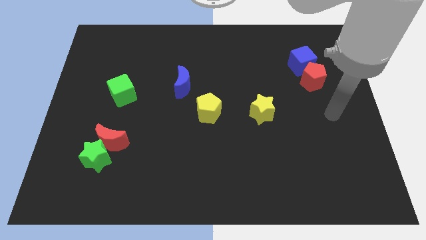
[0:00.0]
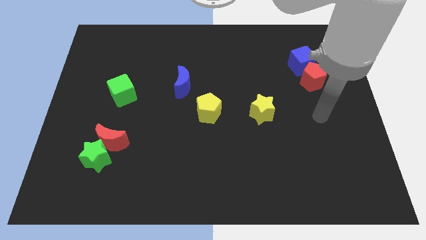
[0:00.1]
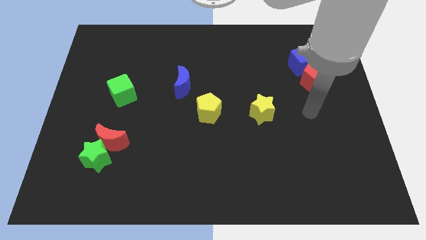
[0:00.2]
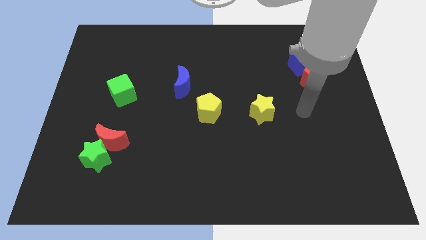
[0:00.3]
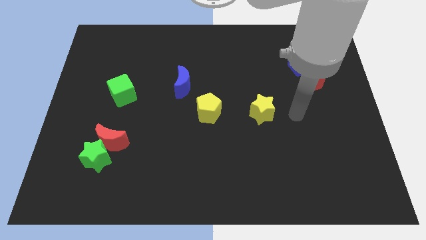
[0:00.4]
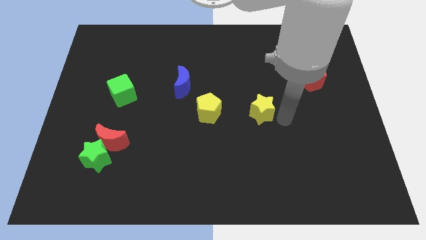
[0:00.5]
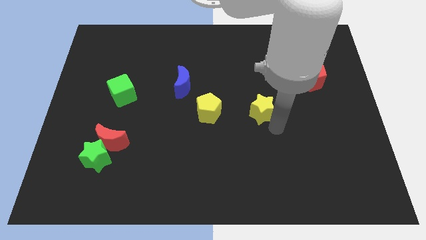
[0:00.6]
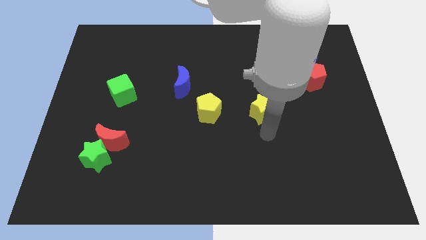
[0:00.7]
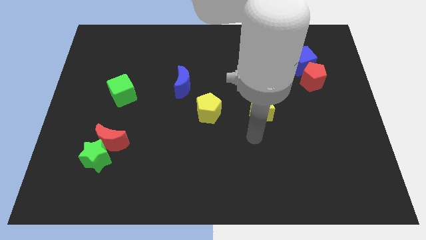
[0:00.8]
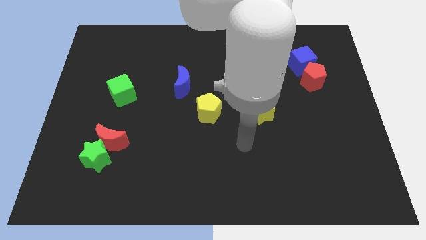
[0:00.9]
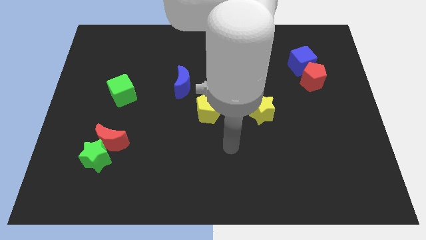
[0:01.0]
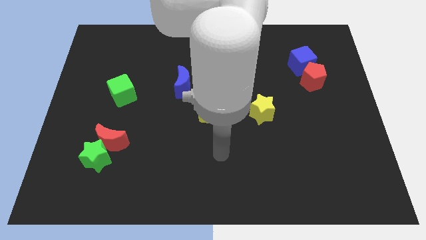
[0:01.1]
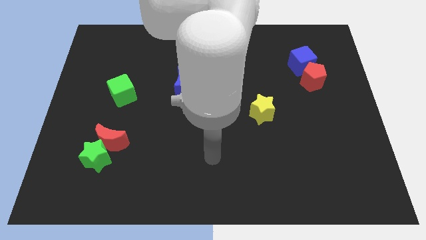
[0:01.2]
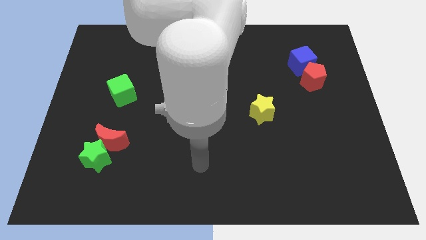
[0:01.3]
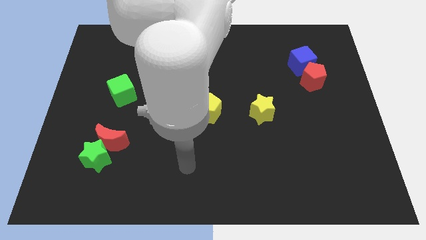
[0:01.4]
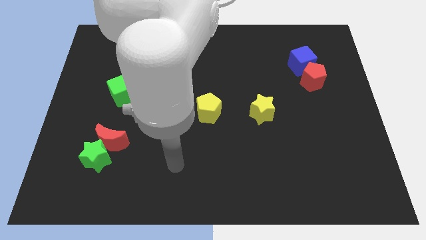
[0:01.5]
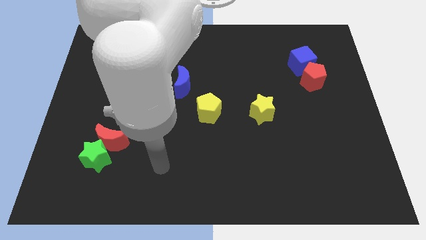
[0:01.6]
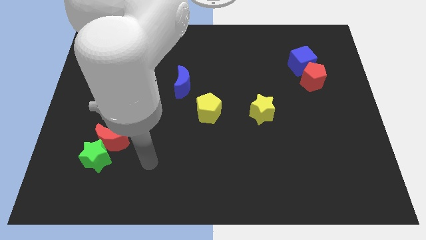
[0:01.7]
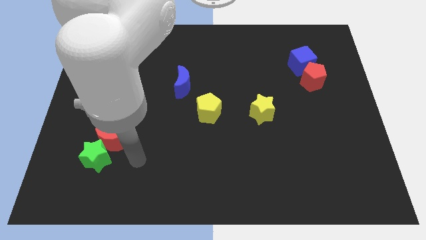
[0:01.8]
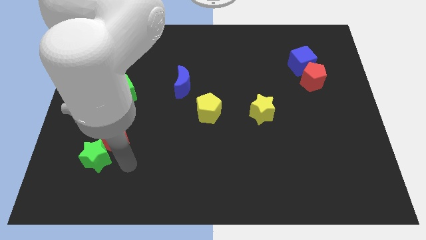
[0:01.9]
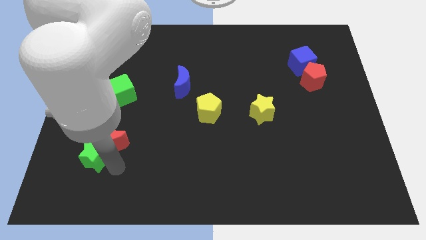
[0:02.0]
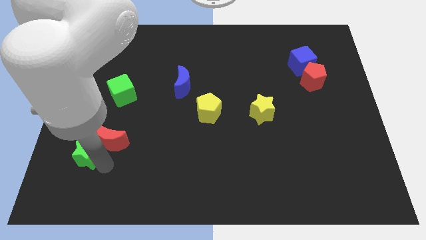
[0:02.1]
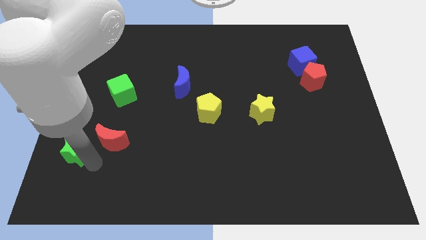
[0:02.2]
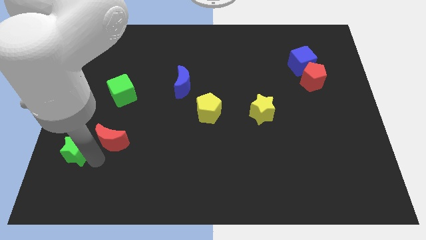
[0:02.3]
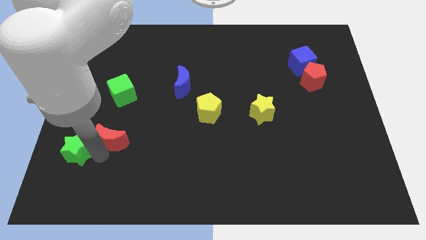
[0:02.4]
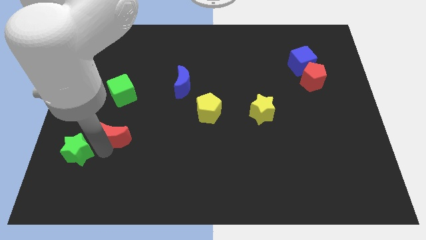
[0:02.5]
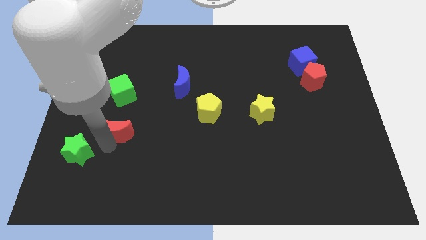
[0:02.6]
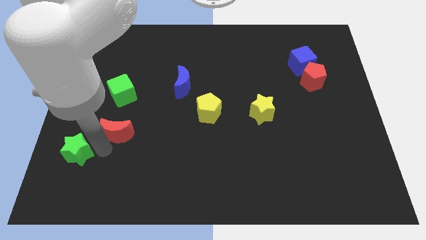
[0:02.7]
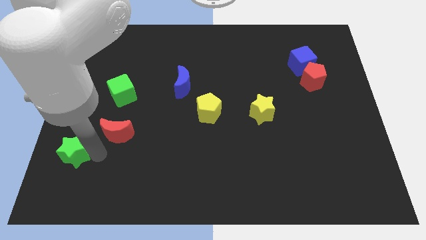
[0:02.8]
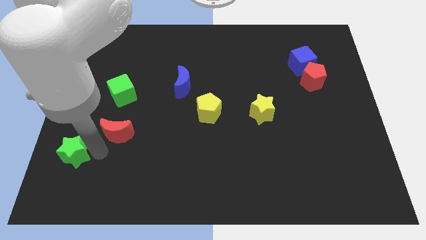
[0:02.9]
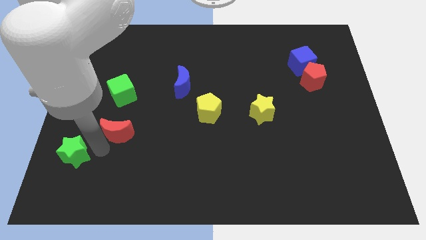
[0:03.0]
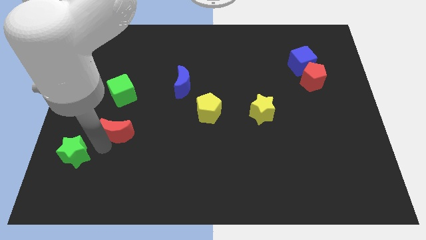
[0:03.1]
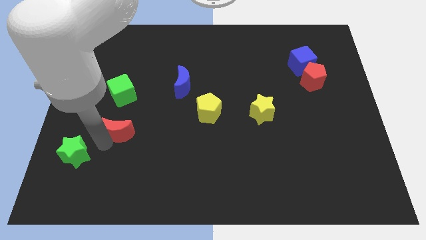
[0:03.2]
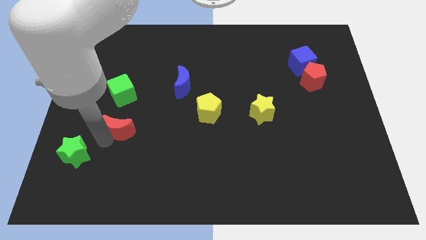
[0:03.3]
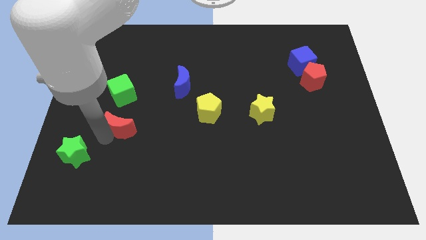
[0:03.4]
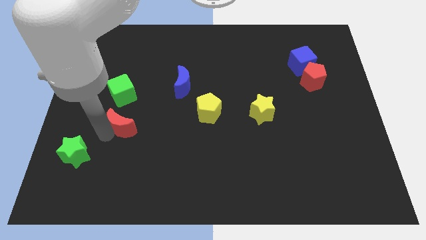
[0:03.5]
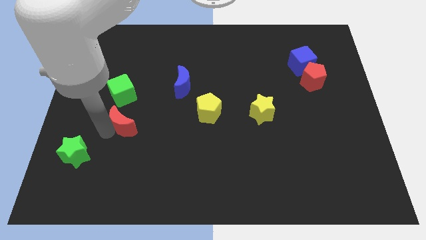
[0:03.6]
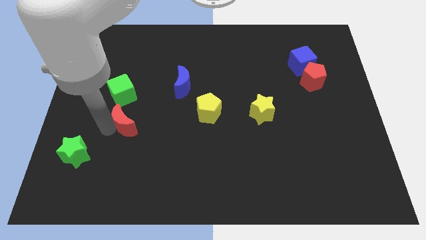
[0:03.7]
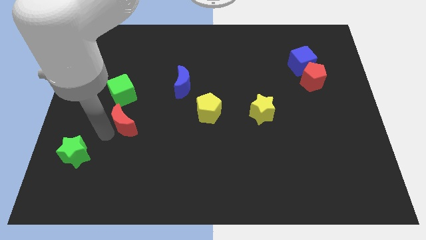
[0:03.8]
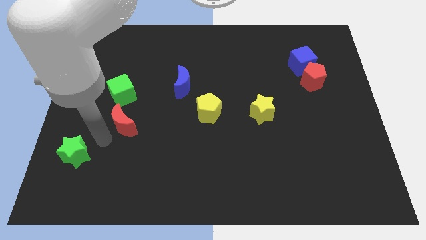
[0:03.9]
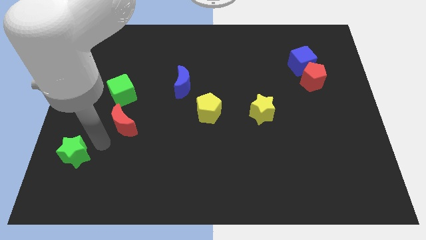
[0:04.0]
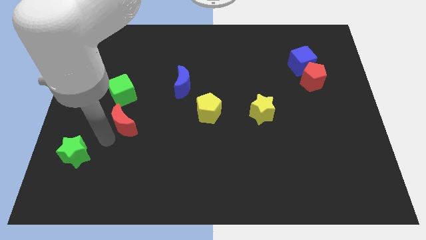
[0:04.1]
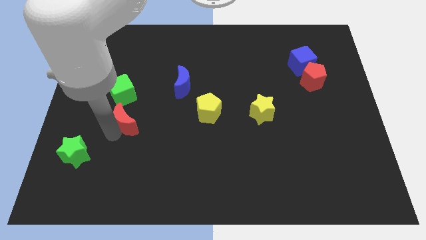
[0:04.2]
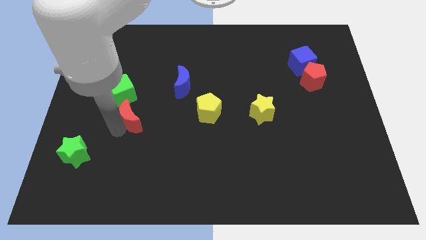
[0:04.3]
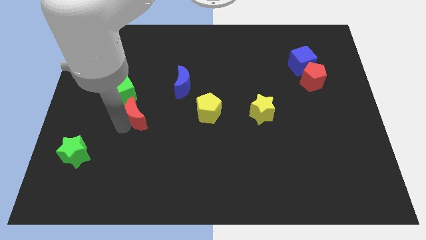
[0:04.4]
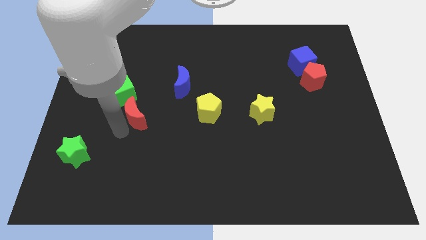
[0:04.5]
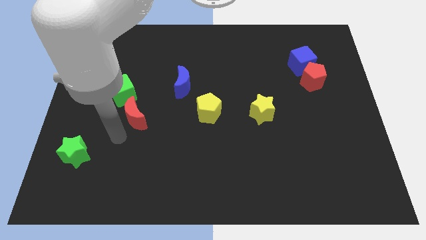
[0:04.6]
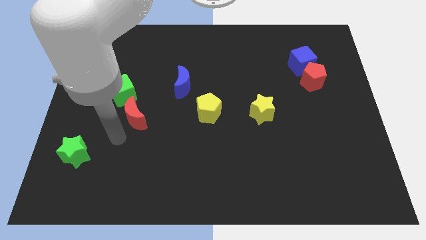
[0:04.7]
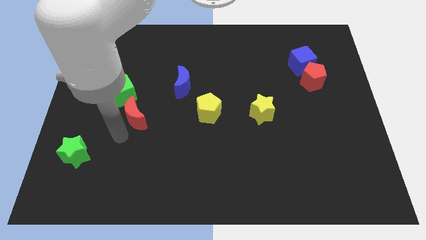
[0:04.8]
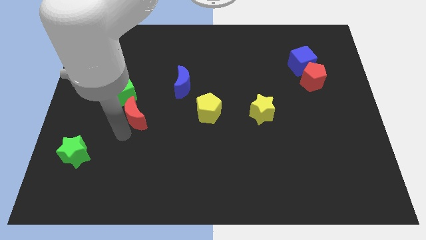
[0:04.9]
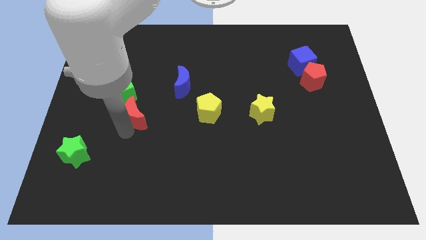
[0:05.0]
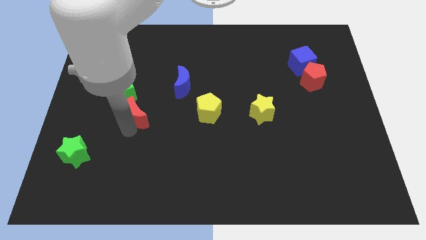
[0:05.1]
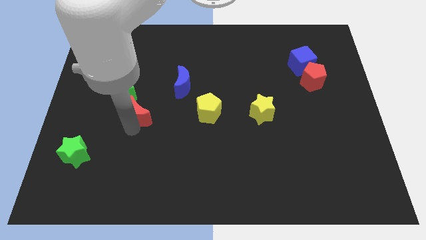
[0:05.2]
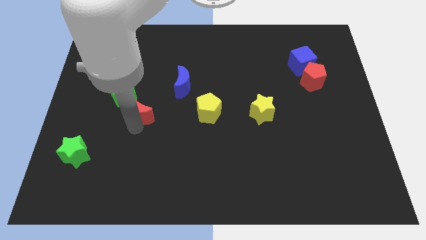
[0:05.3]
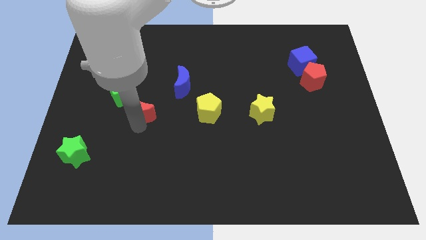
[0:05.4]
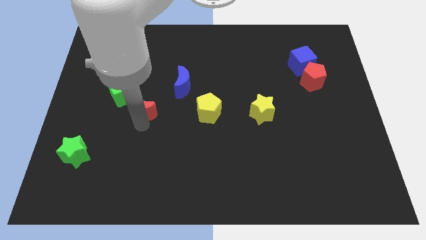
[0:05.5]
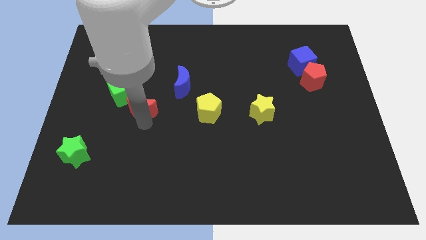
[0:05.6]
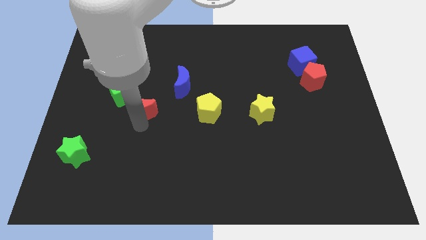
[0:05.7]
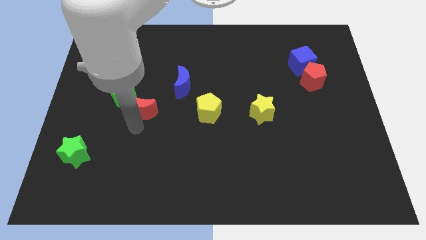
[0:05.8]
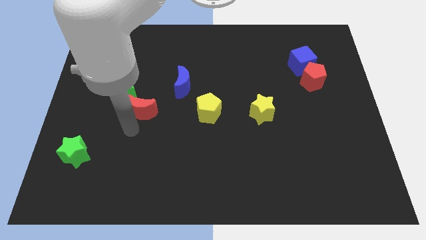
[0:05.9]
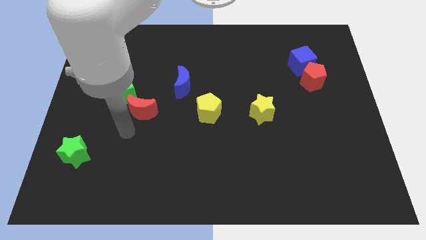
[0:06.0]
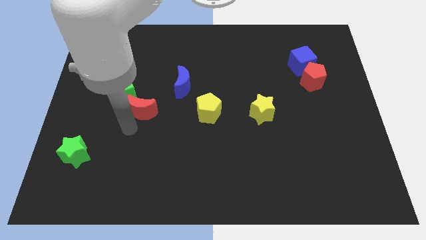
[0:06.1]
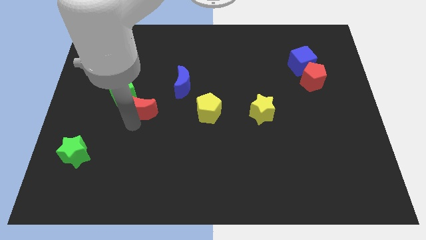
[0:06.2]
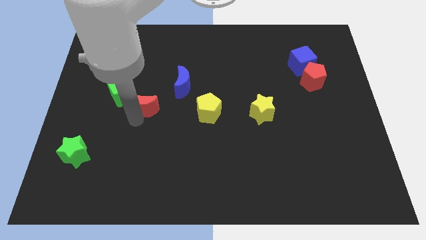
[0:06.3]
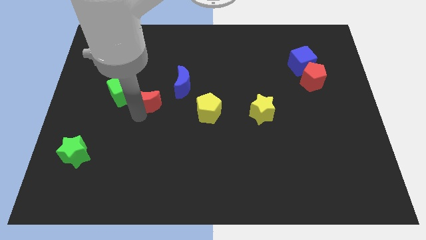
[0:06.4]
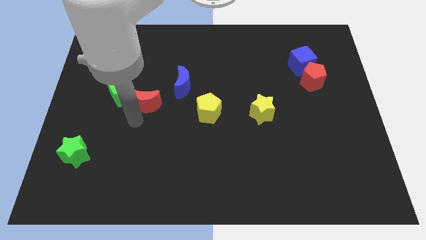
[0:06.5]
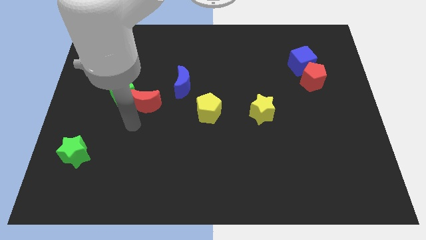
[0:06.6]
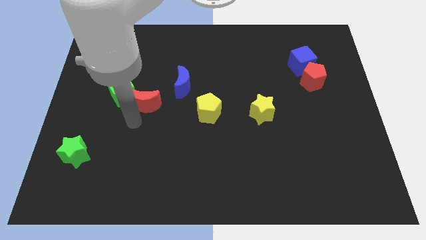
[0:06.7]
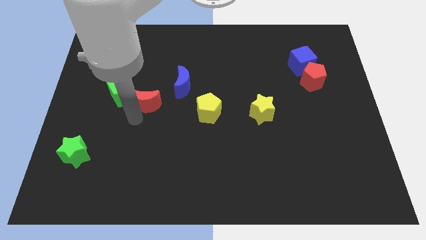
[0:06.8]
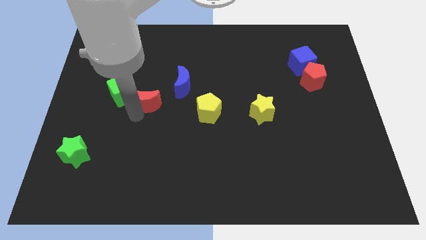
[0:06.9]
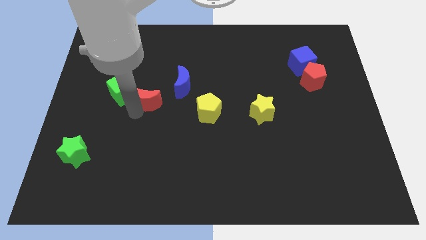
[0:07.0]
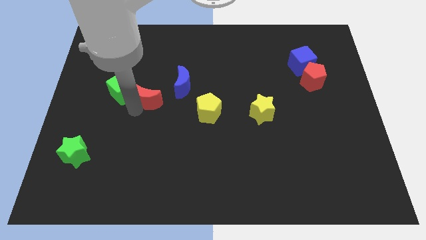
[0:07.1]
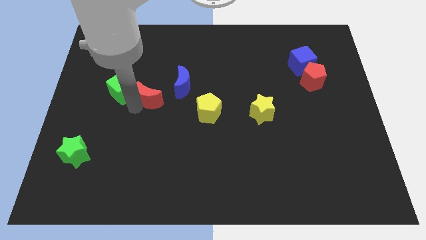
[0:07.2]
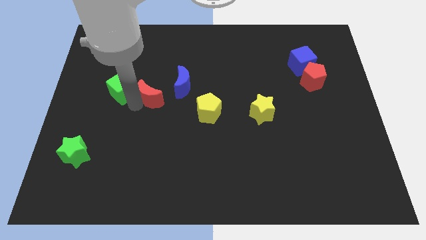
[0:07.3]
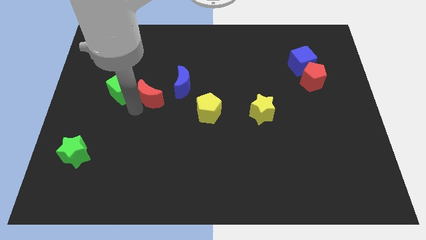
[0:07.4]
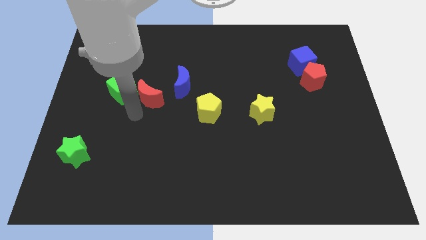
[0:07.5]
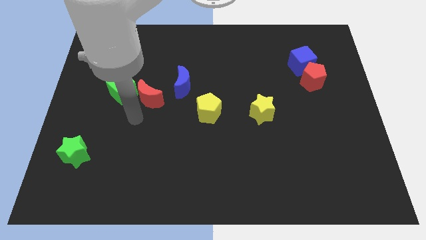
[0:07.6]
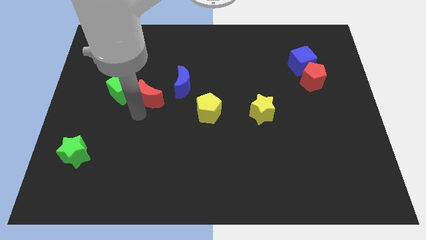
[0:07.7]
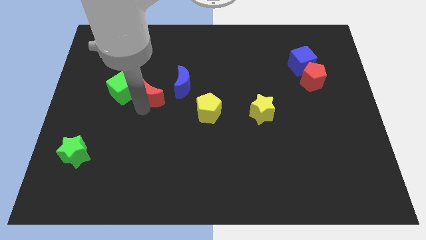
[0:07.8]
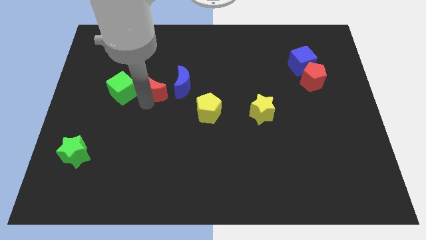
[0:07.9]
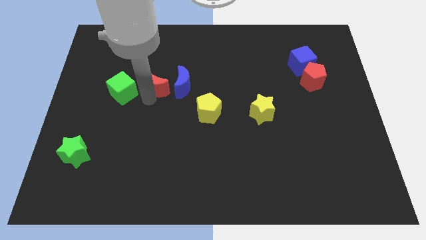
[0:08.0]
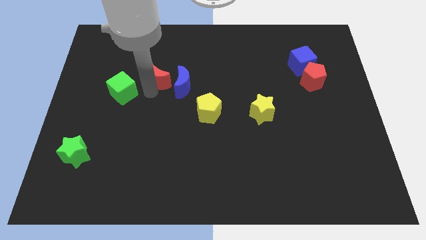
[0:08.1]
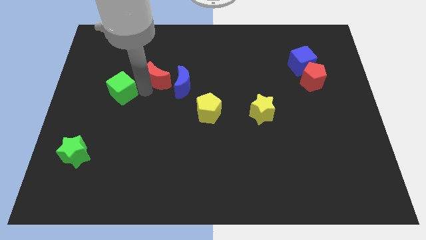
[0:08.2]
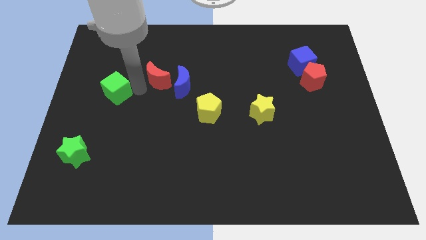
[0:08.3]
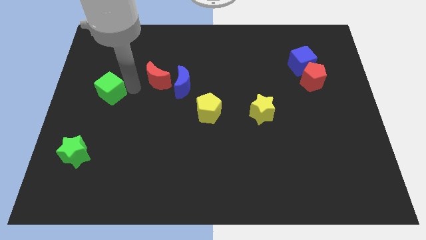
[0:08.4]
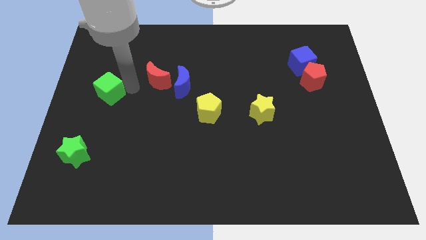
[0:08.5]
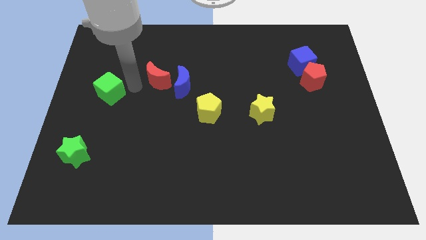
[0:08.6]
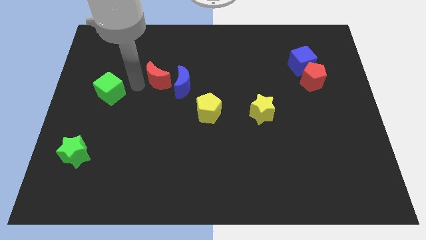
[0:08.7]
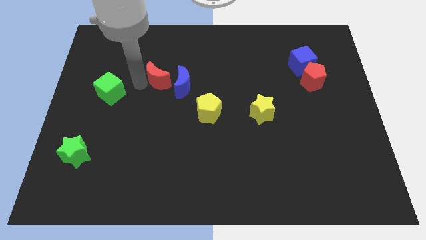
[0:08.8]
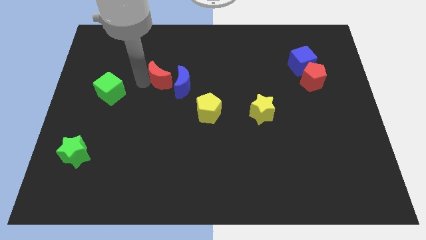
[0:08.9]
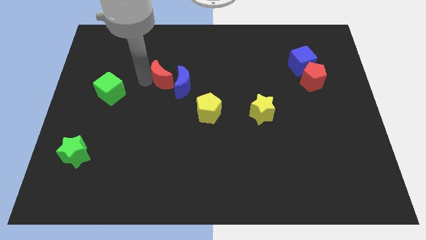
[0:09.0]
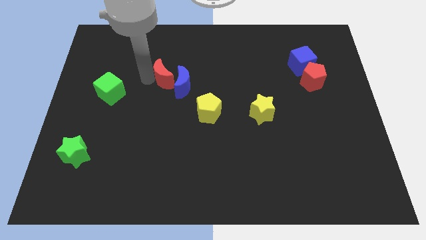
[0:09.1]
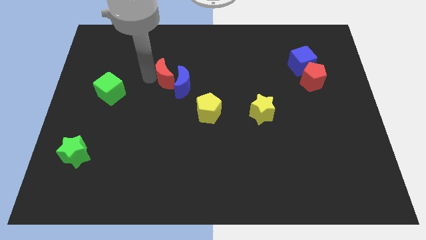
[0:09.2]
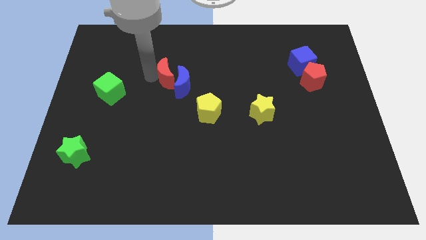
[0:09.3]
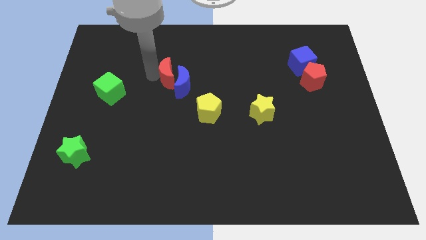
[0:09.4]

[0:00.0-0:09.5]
move the red moon diagonally upwards and right
